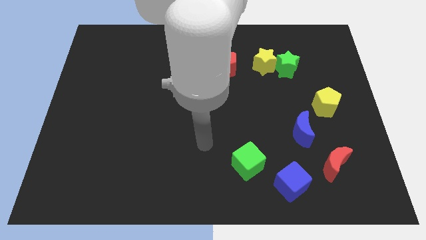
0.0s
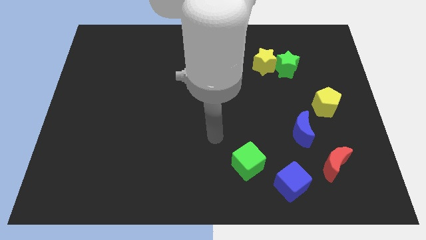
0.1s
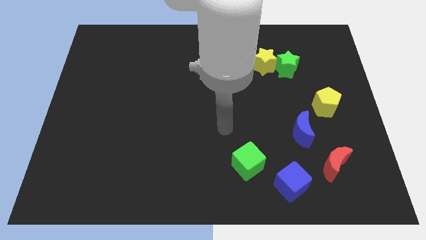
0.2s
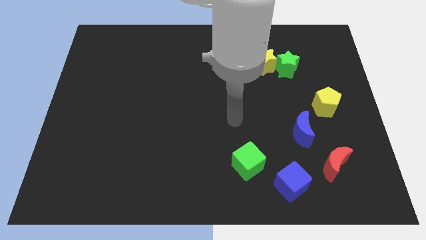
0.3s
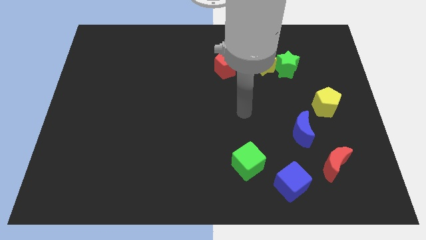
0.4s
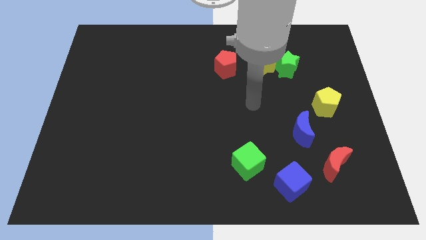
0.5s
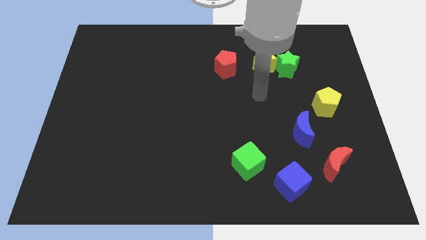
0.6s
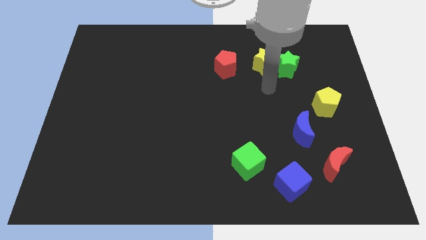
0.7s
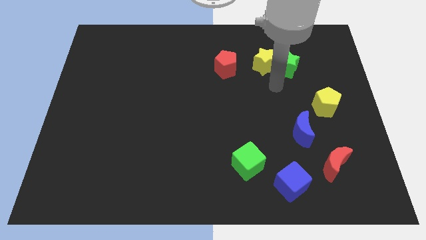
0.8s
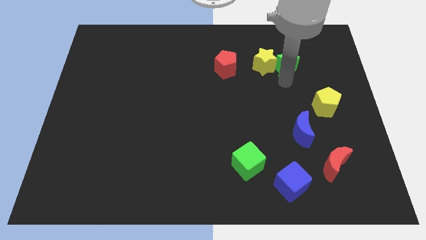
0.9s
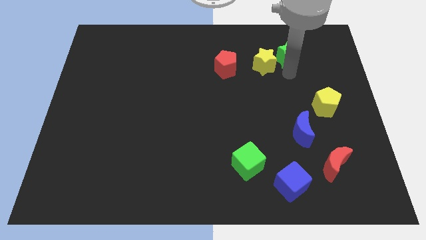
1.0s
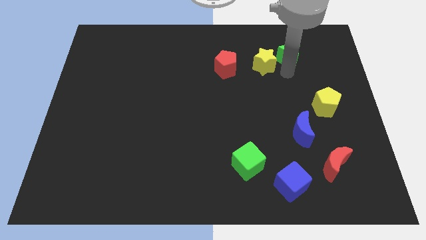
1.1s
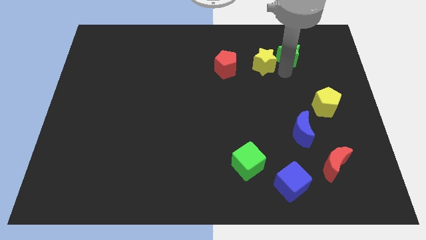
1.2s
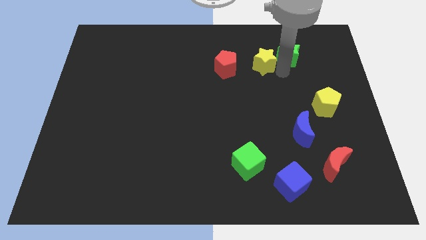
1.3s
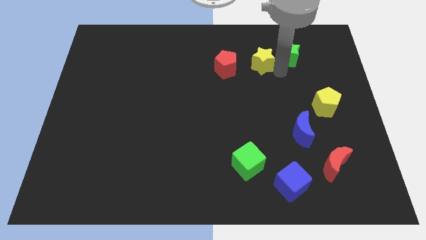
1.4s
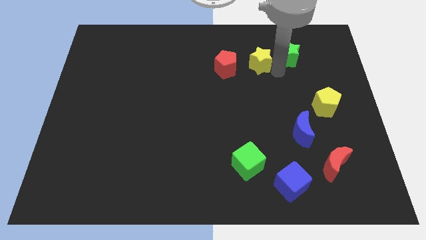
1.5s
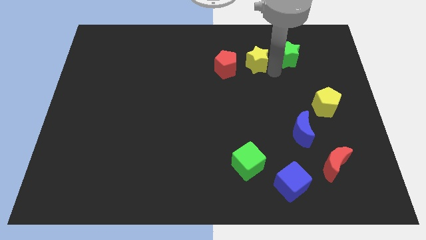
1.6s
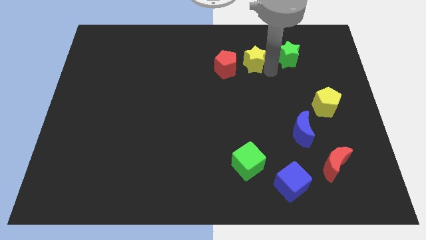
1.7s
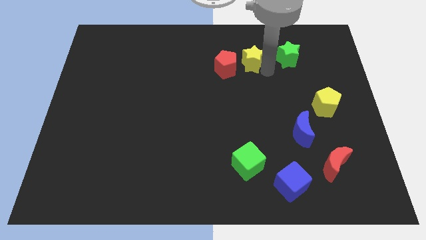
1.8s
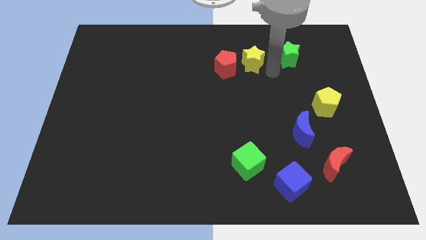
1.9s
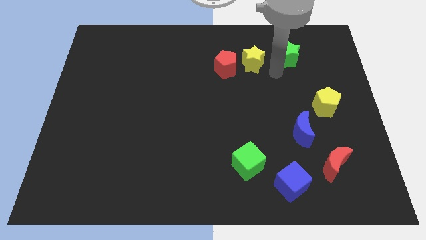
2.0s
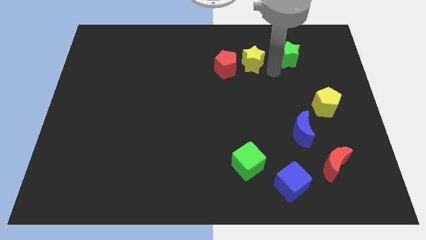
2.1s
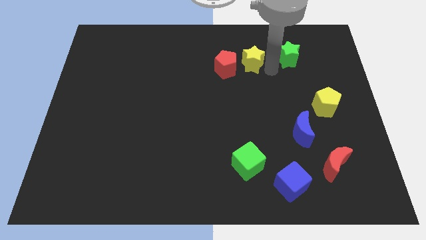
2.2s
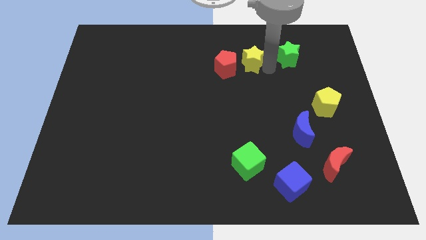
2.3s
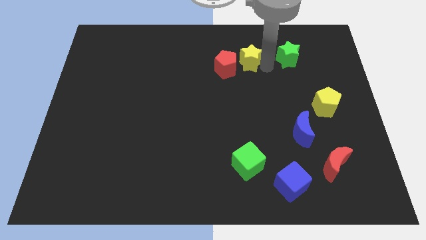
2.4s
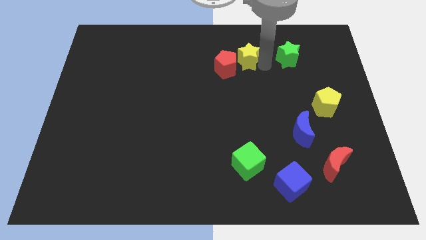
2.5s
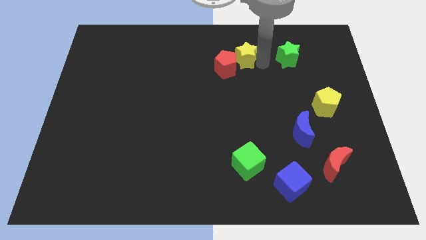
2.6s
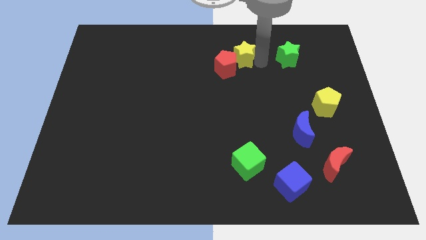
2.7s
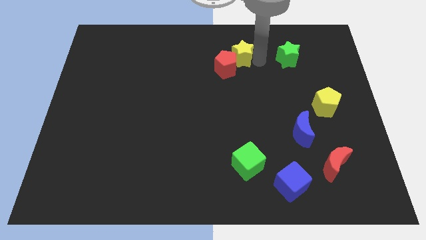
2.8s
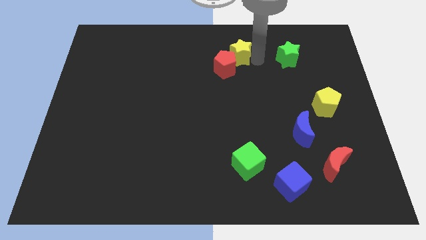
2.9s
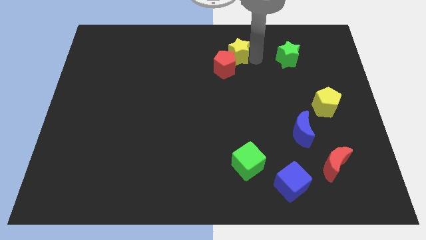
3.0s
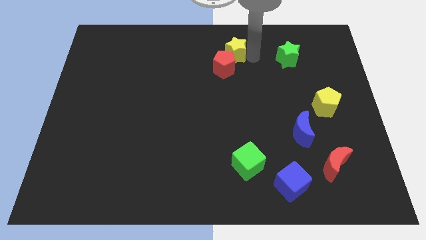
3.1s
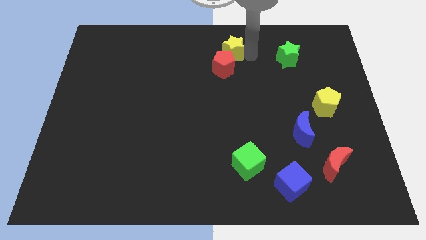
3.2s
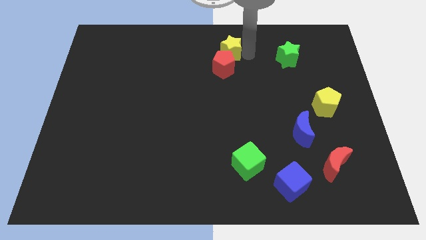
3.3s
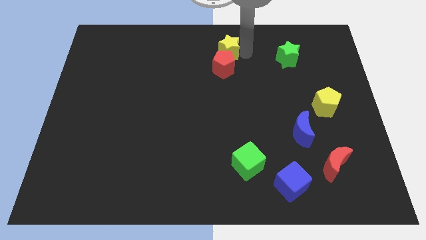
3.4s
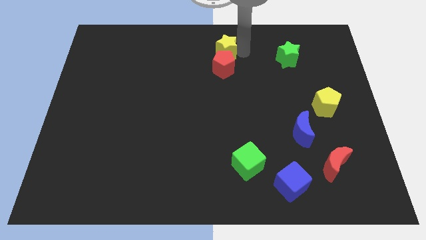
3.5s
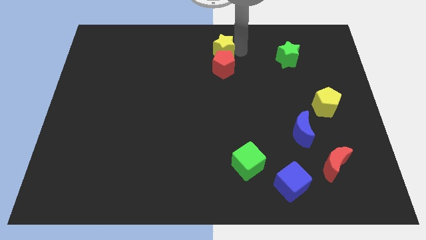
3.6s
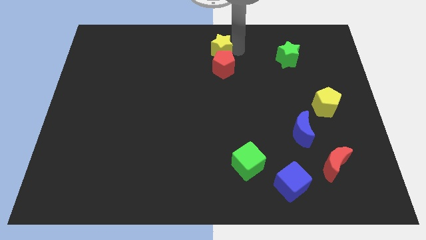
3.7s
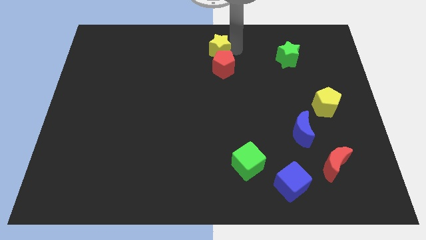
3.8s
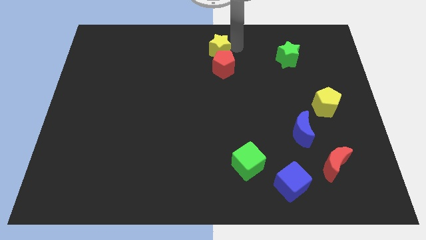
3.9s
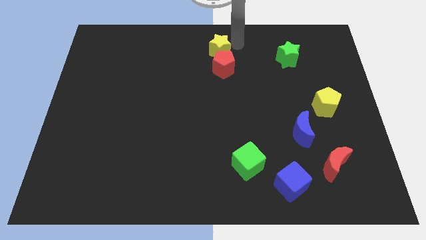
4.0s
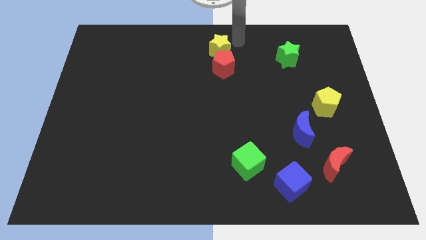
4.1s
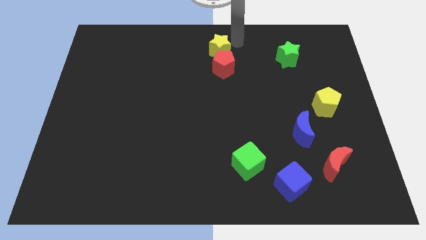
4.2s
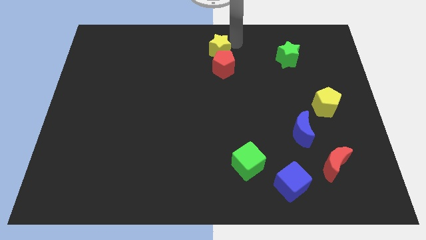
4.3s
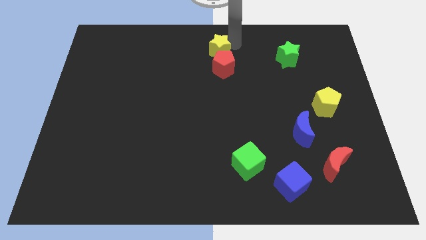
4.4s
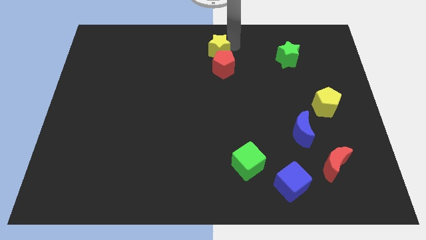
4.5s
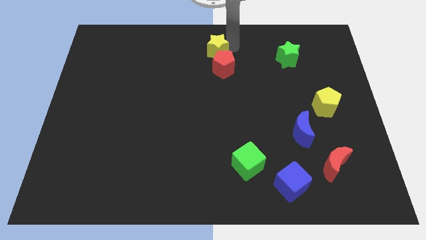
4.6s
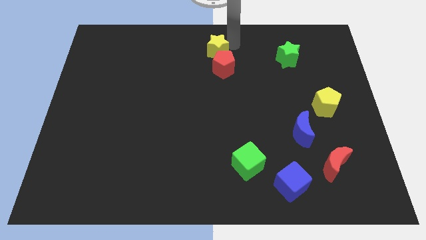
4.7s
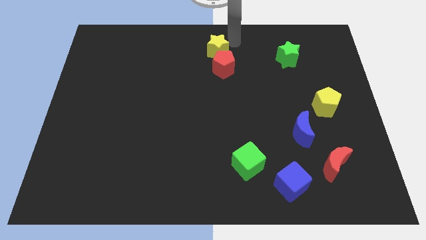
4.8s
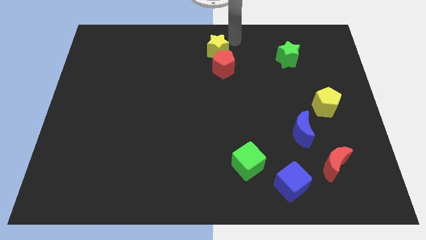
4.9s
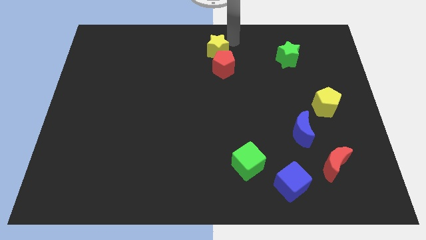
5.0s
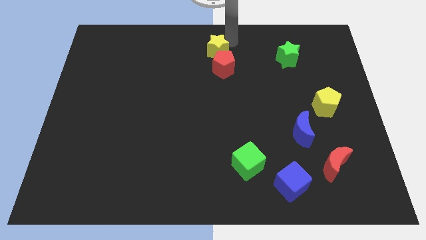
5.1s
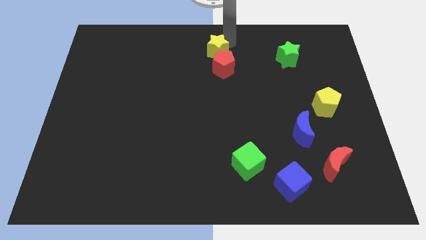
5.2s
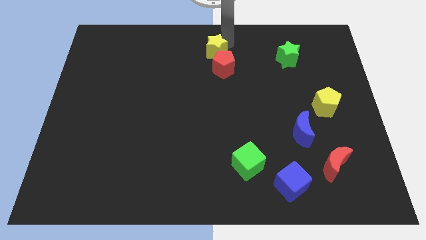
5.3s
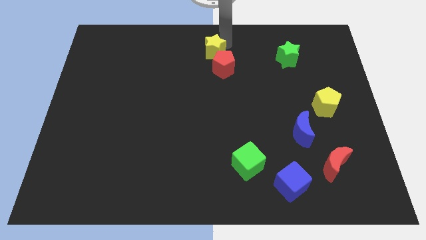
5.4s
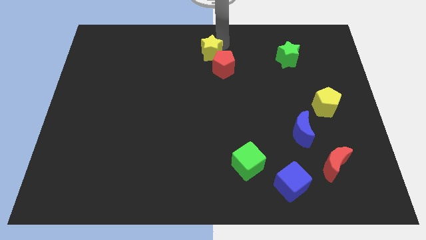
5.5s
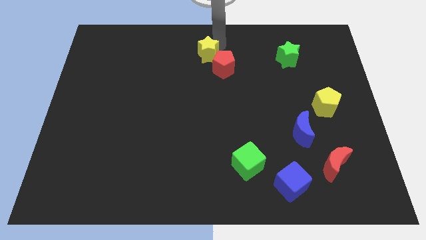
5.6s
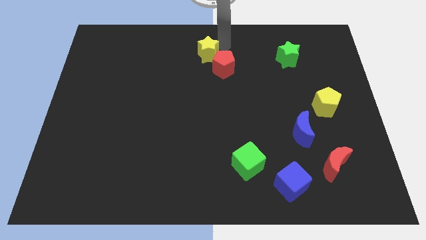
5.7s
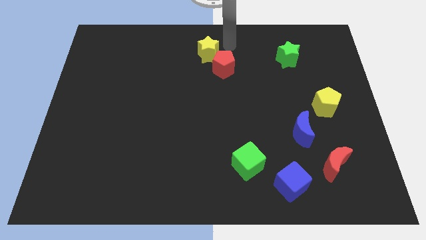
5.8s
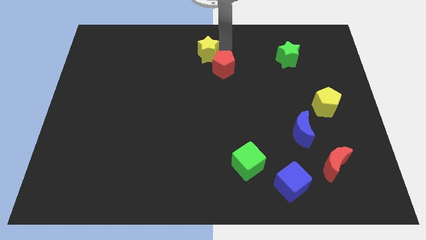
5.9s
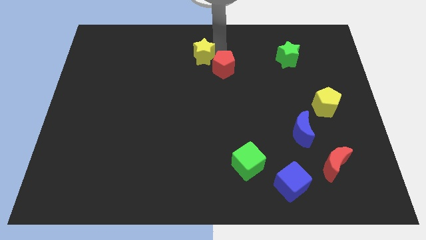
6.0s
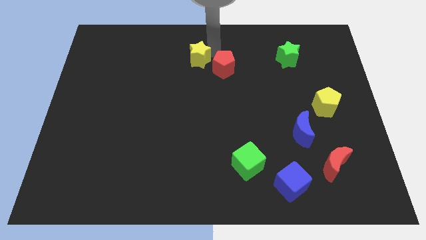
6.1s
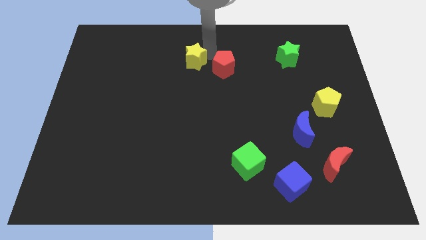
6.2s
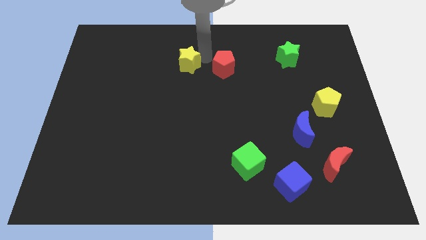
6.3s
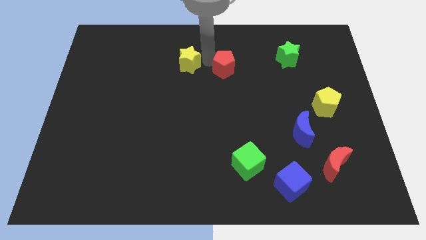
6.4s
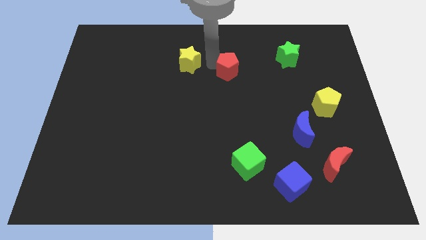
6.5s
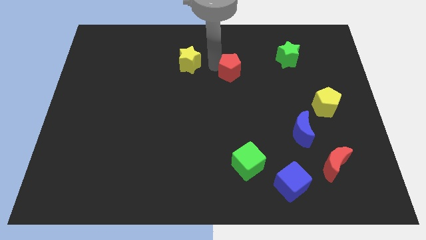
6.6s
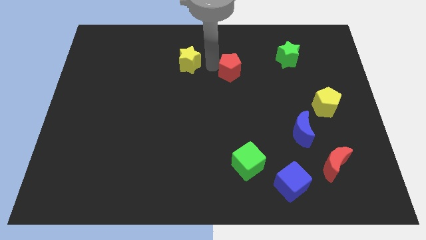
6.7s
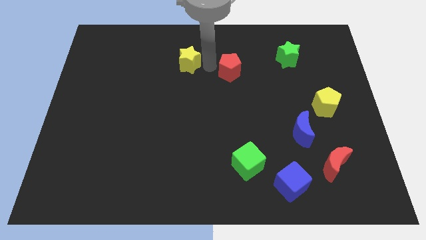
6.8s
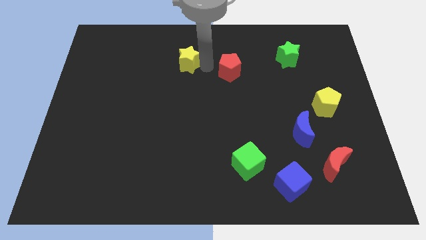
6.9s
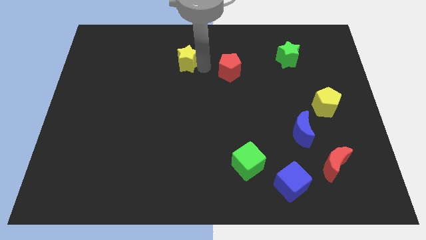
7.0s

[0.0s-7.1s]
move the yellow star left

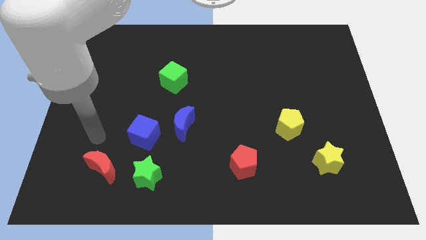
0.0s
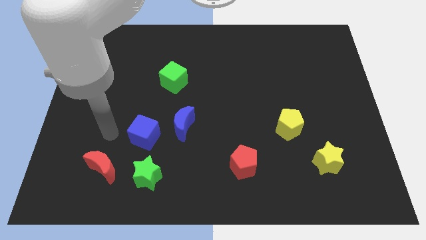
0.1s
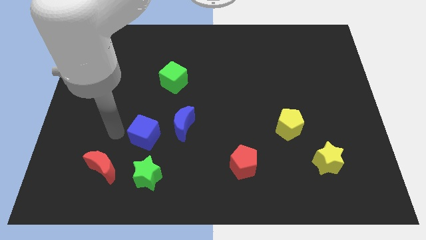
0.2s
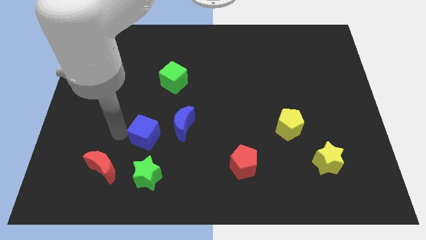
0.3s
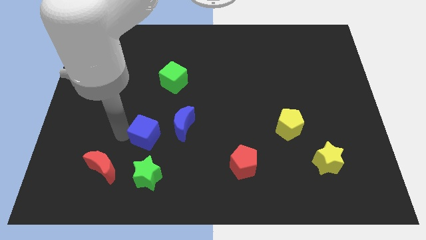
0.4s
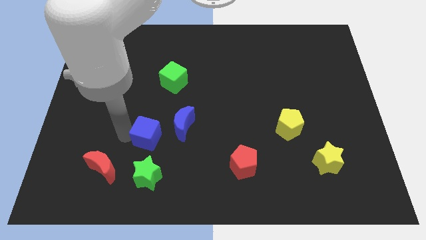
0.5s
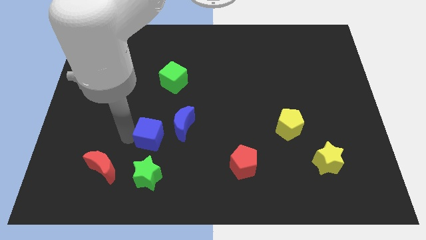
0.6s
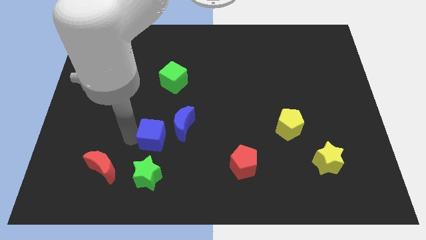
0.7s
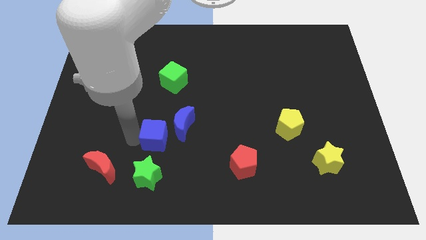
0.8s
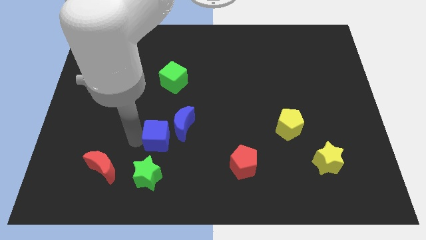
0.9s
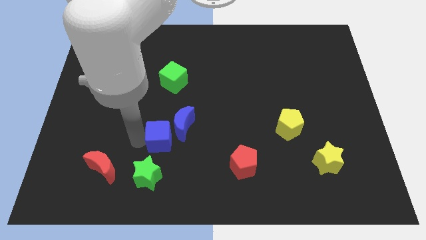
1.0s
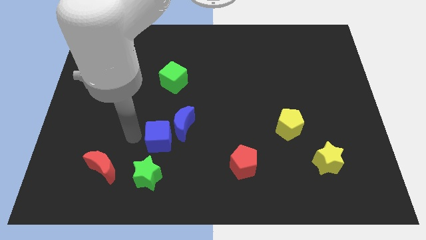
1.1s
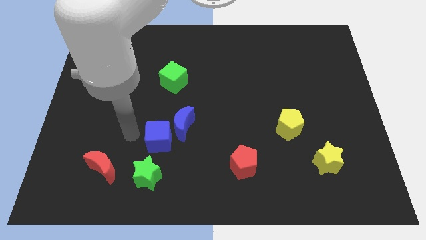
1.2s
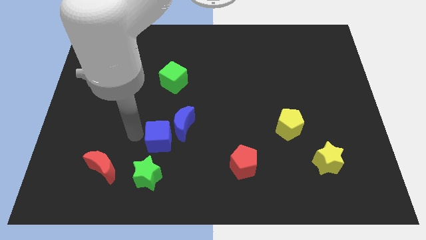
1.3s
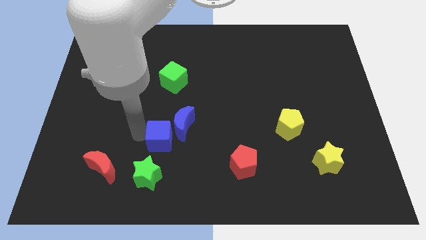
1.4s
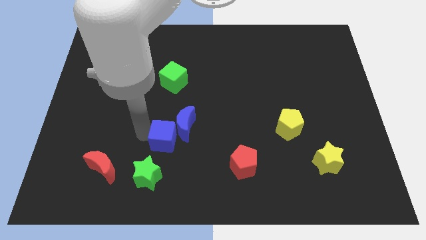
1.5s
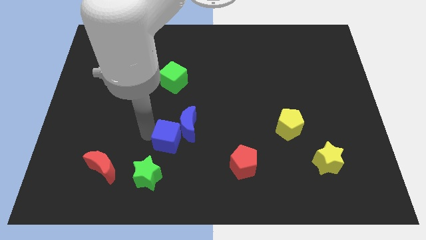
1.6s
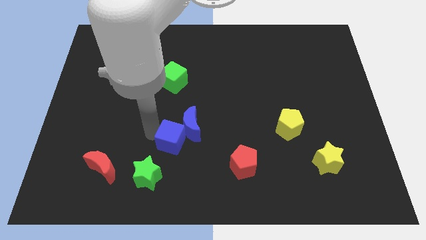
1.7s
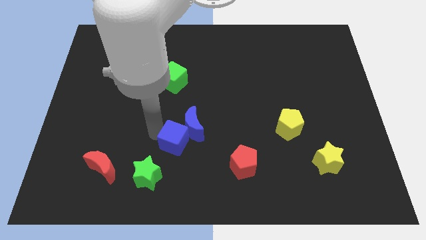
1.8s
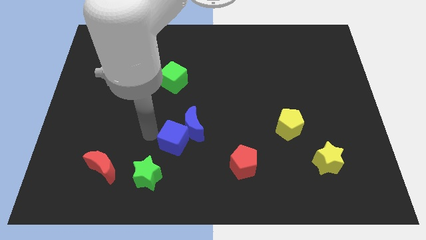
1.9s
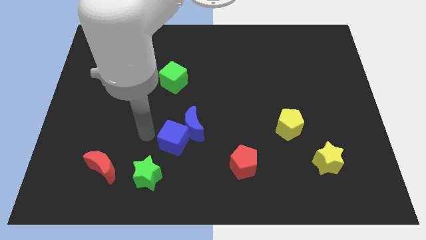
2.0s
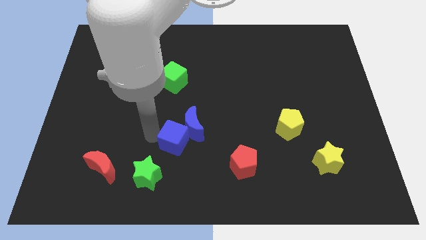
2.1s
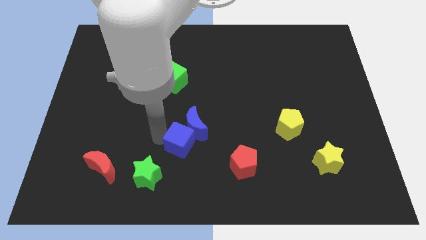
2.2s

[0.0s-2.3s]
slightly move the blue cube right
